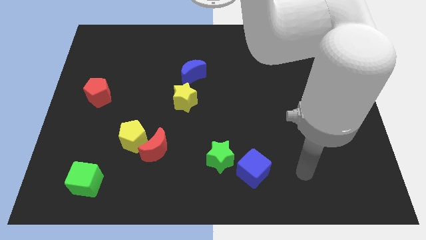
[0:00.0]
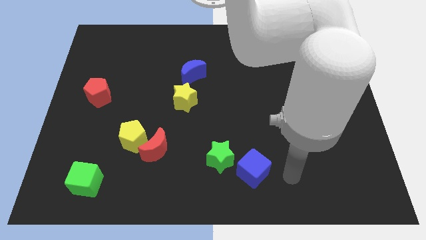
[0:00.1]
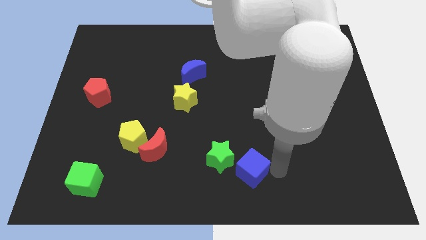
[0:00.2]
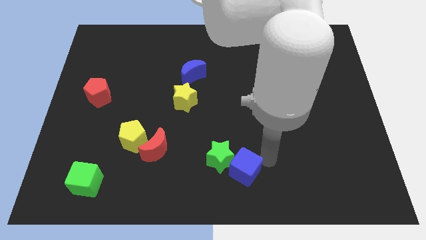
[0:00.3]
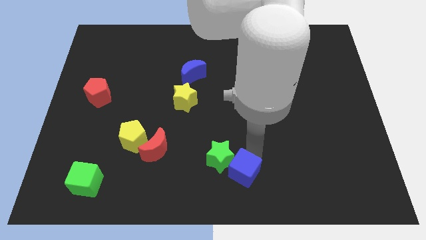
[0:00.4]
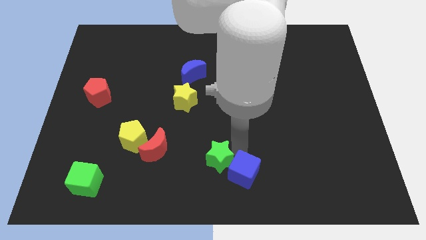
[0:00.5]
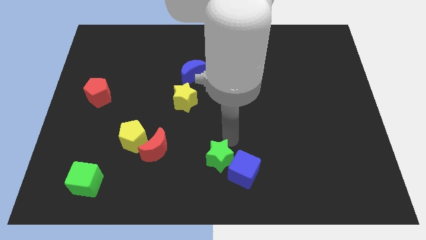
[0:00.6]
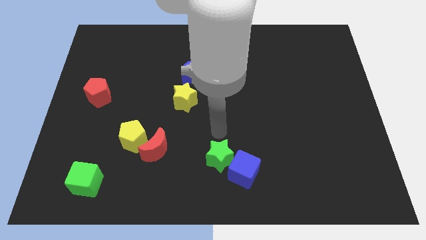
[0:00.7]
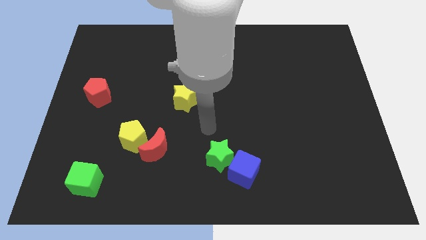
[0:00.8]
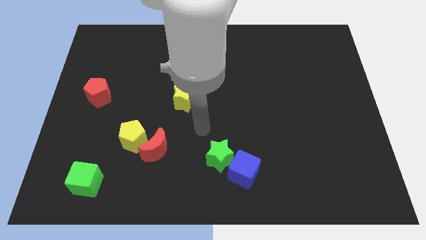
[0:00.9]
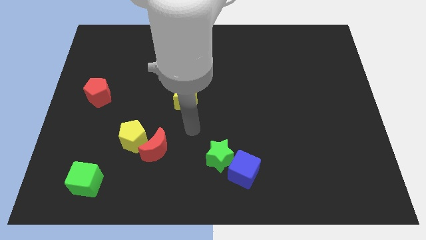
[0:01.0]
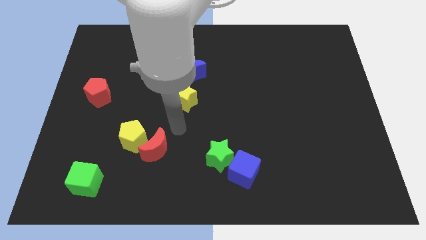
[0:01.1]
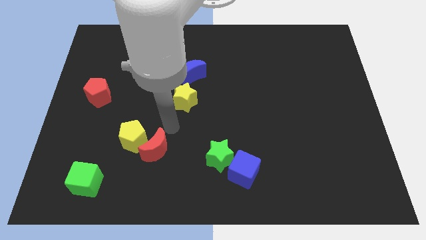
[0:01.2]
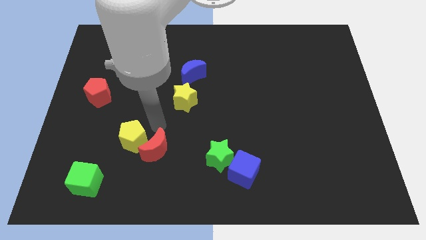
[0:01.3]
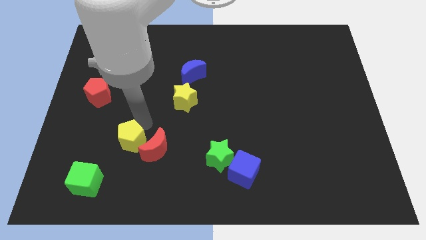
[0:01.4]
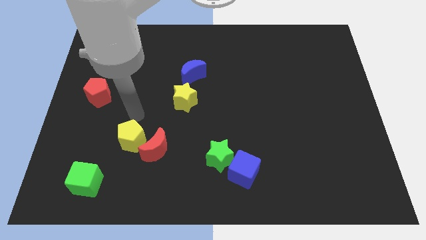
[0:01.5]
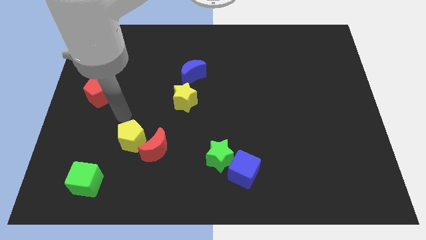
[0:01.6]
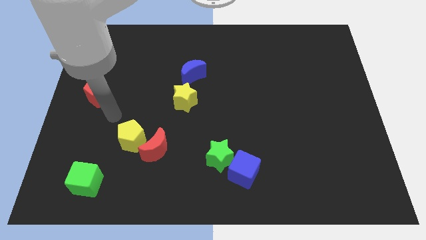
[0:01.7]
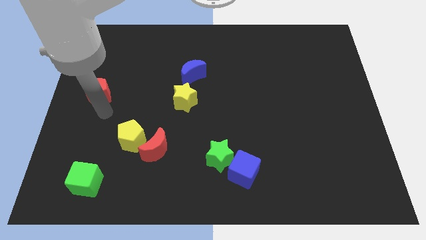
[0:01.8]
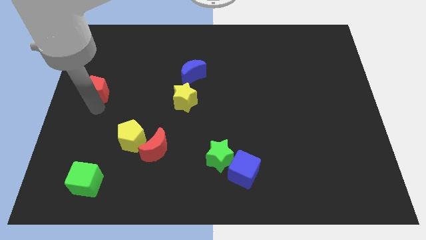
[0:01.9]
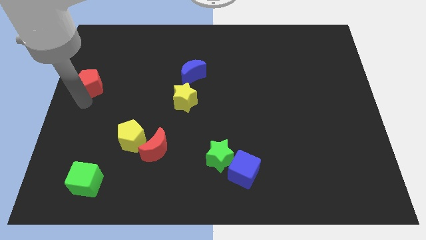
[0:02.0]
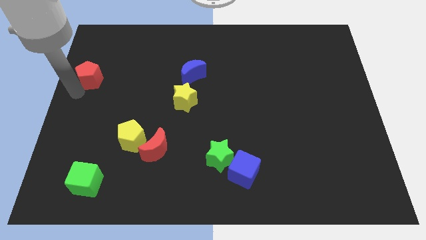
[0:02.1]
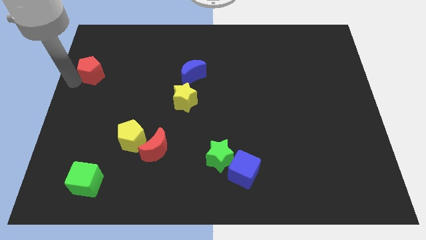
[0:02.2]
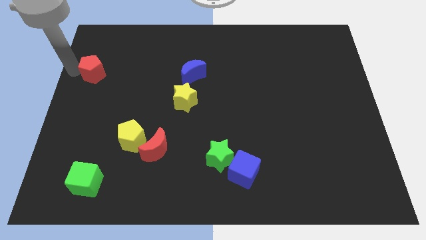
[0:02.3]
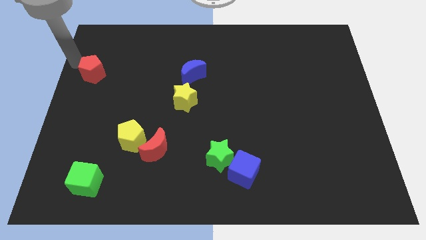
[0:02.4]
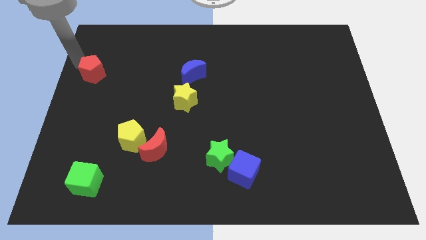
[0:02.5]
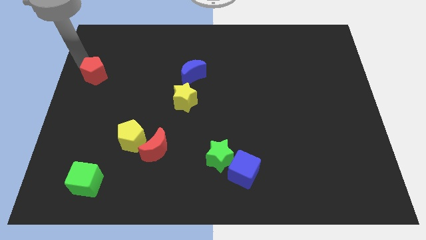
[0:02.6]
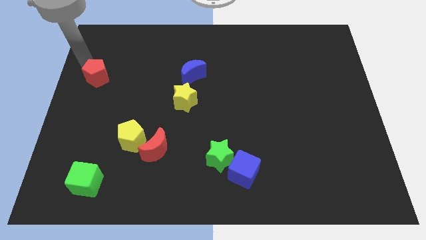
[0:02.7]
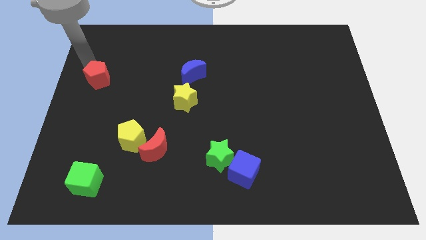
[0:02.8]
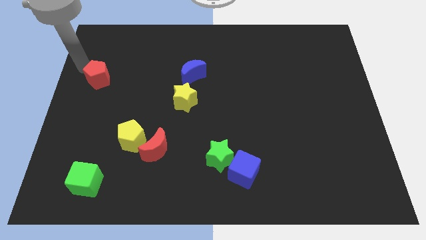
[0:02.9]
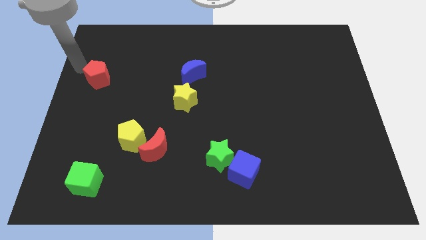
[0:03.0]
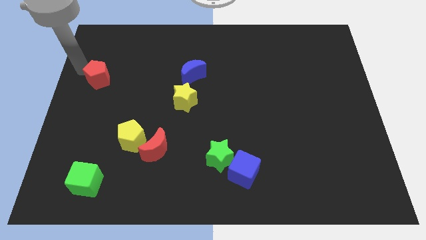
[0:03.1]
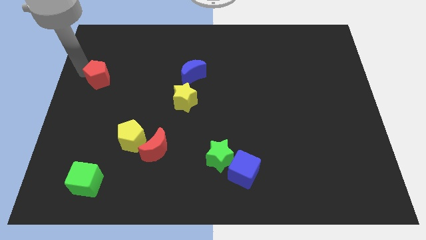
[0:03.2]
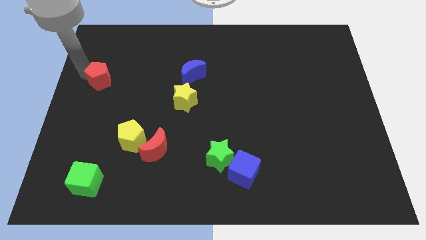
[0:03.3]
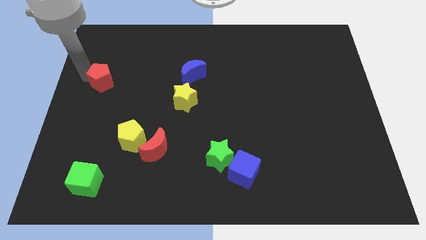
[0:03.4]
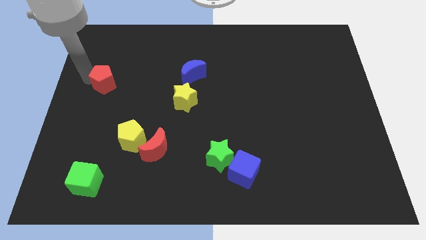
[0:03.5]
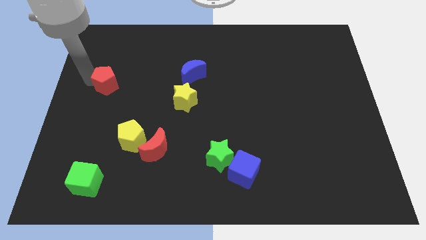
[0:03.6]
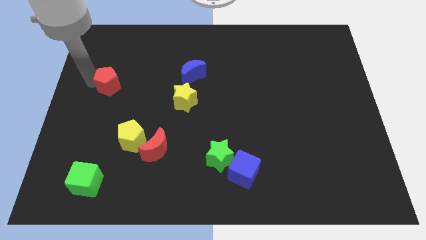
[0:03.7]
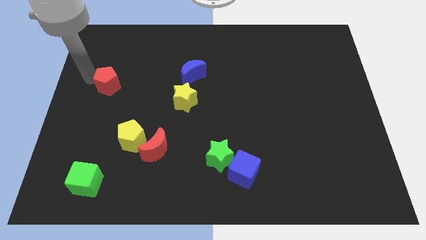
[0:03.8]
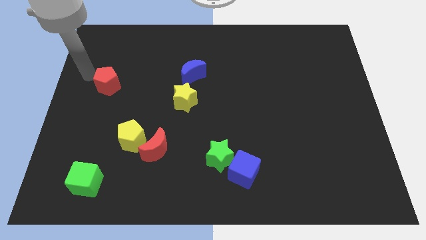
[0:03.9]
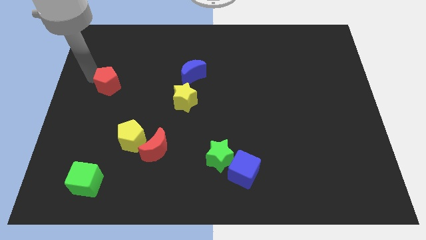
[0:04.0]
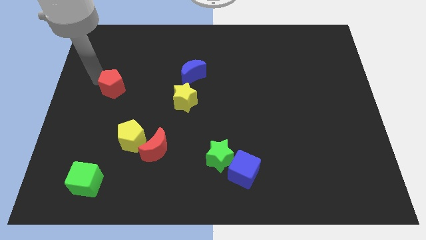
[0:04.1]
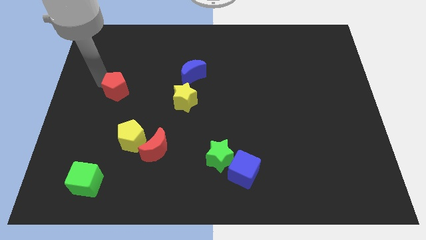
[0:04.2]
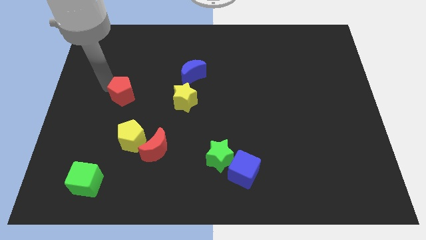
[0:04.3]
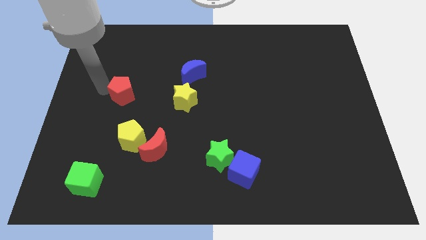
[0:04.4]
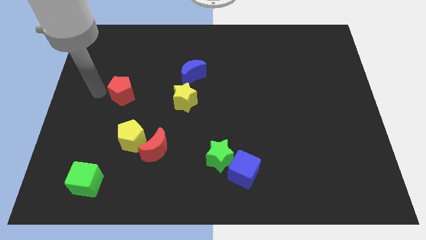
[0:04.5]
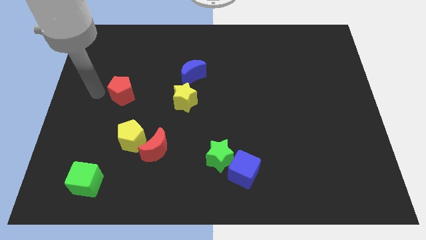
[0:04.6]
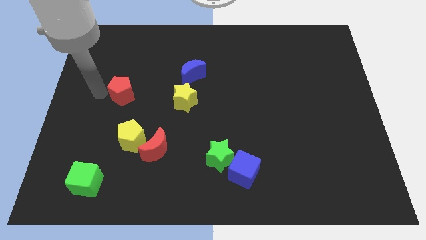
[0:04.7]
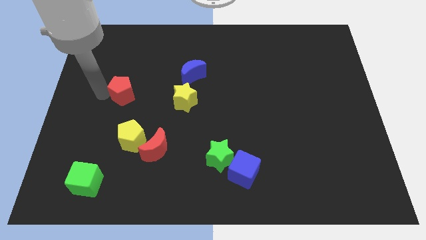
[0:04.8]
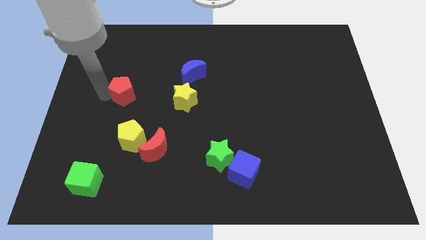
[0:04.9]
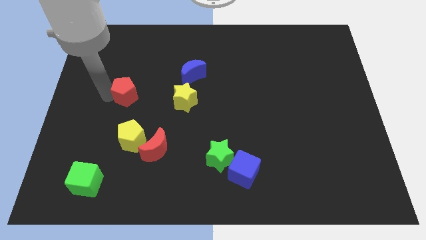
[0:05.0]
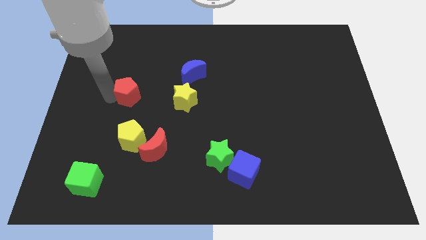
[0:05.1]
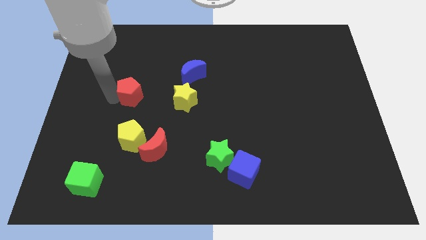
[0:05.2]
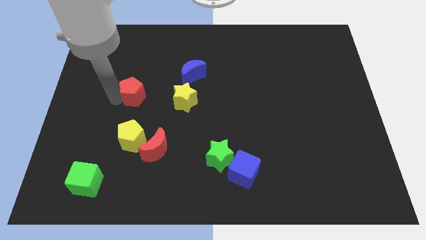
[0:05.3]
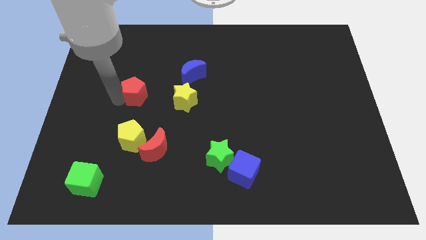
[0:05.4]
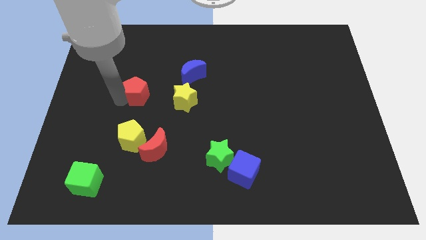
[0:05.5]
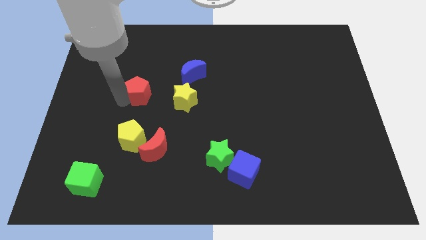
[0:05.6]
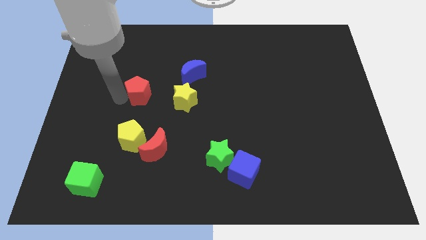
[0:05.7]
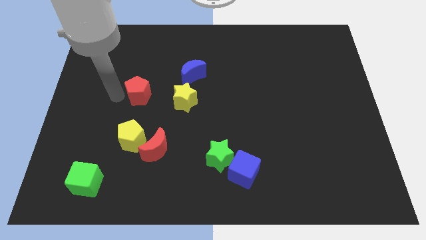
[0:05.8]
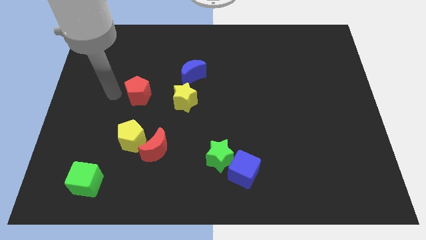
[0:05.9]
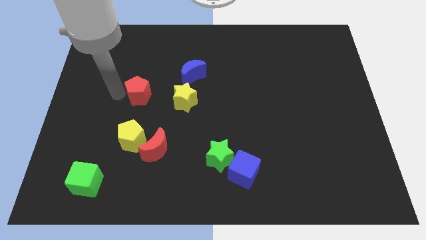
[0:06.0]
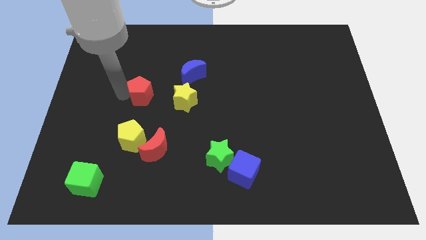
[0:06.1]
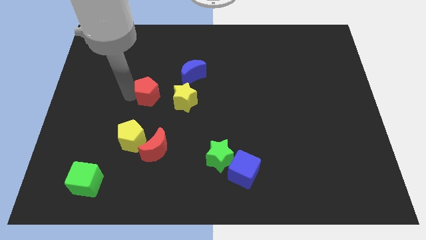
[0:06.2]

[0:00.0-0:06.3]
slide the red pentagon diagonally down and to the left of the blue moon

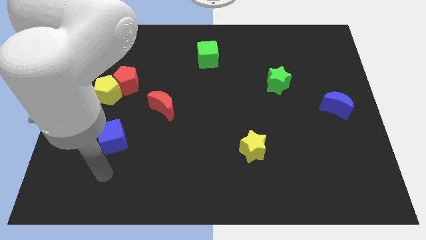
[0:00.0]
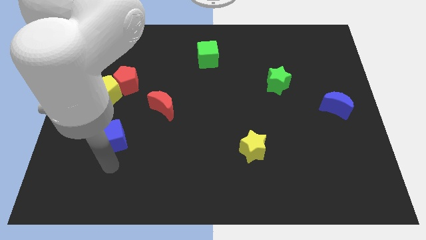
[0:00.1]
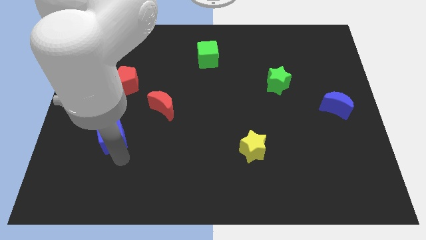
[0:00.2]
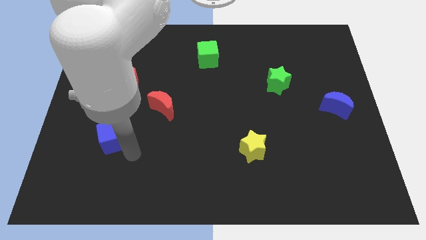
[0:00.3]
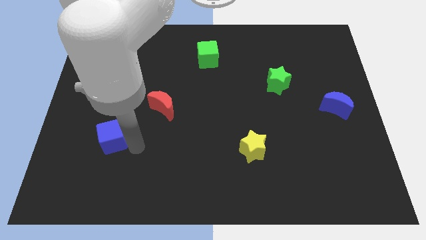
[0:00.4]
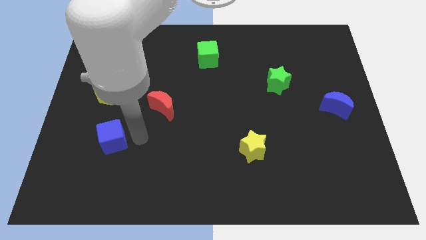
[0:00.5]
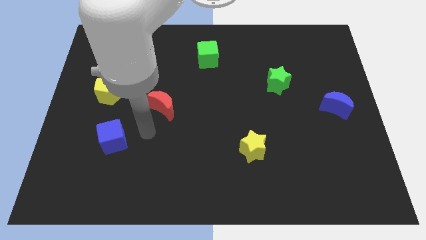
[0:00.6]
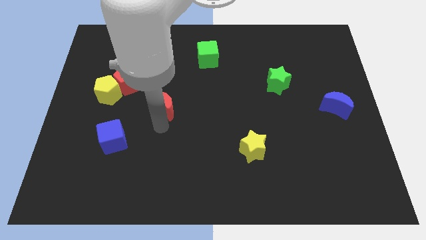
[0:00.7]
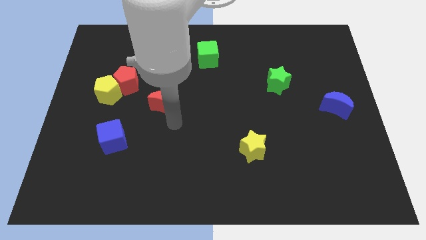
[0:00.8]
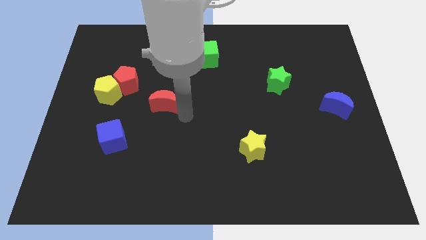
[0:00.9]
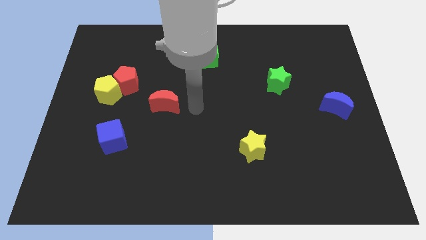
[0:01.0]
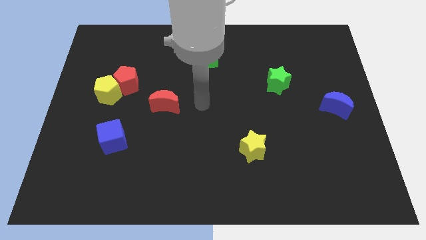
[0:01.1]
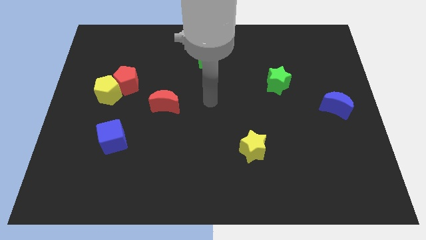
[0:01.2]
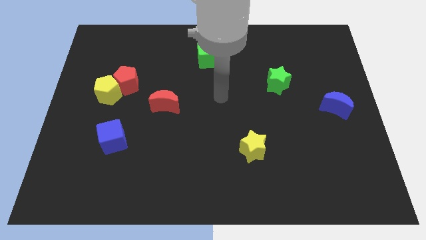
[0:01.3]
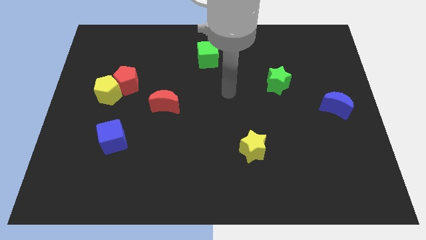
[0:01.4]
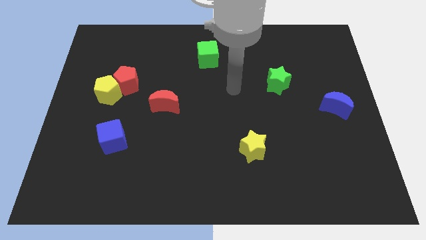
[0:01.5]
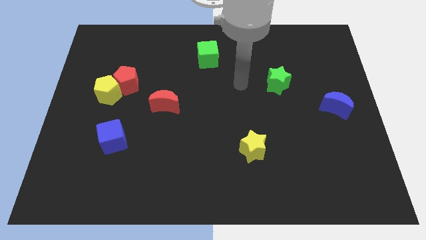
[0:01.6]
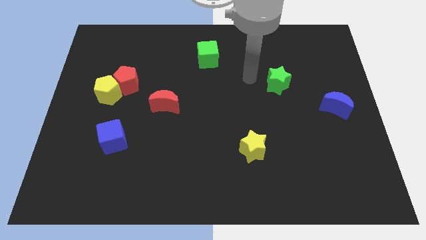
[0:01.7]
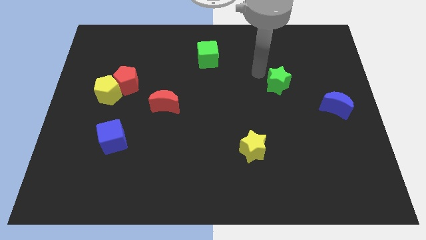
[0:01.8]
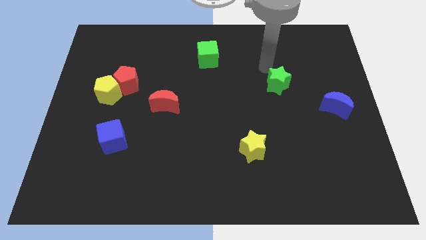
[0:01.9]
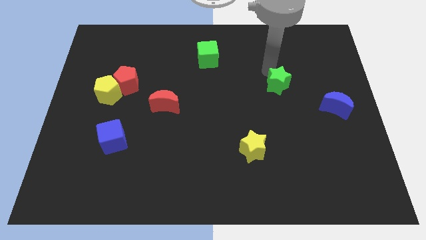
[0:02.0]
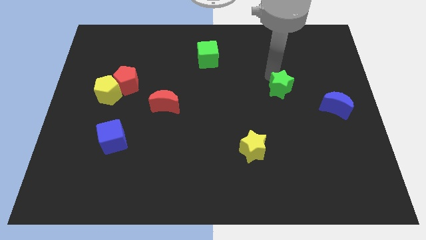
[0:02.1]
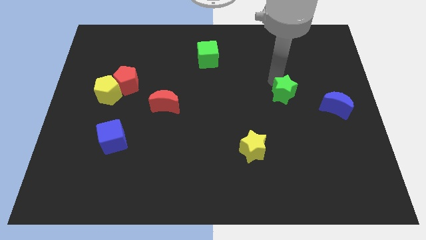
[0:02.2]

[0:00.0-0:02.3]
move the green star to the left of the blue moon
